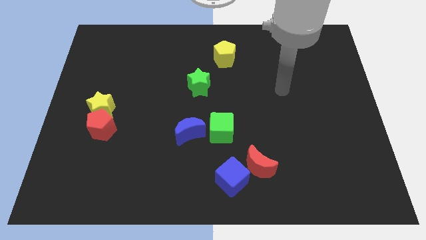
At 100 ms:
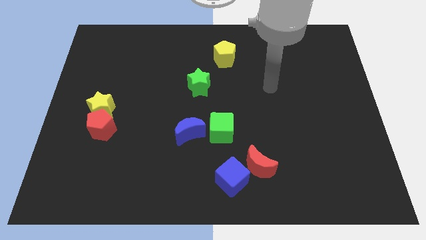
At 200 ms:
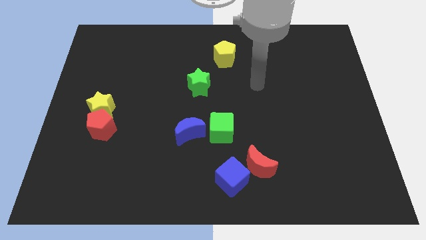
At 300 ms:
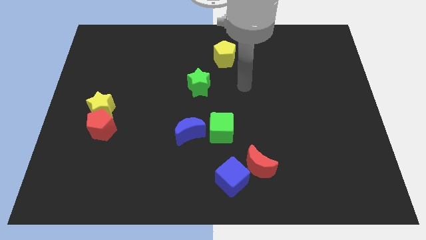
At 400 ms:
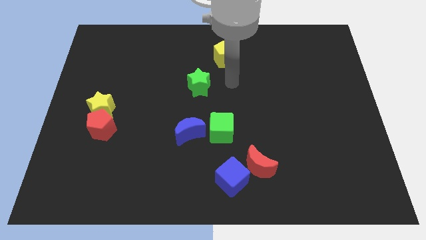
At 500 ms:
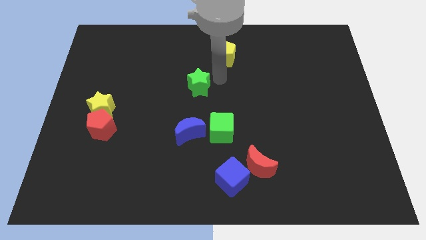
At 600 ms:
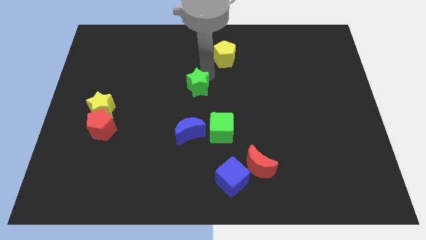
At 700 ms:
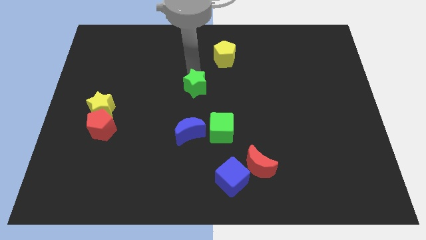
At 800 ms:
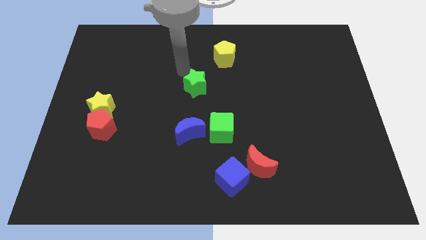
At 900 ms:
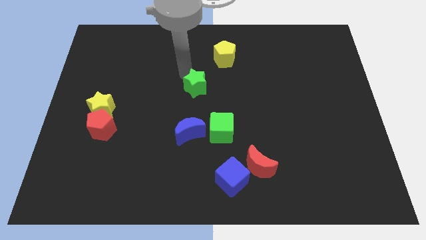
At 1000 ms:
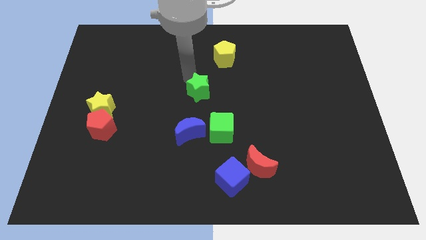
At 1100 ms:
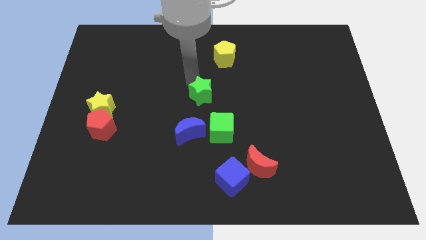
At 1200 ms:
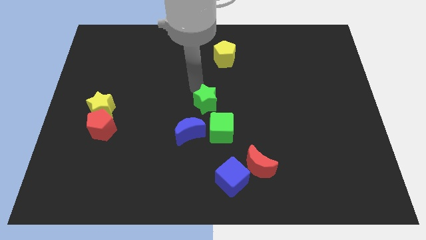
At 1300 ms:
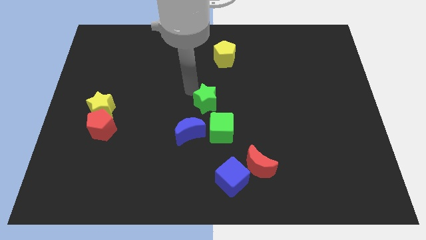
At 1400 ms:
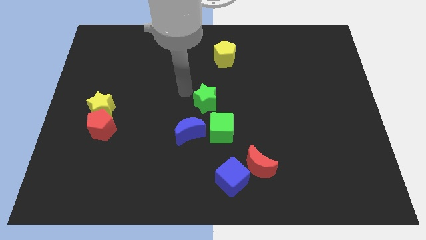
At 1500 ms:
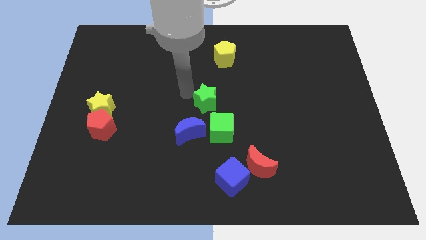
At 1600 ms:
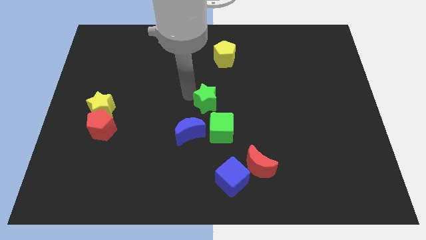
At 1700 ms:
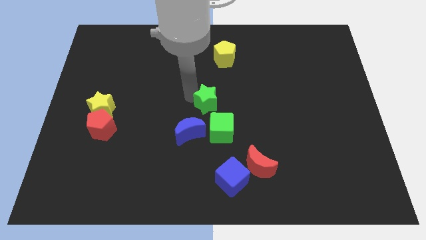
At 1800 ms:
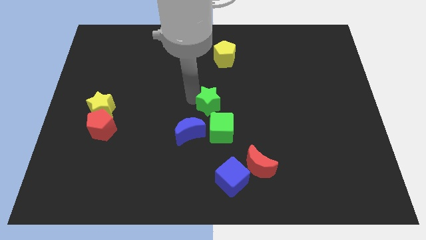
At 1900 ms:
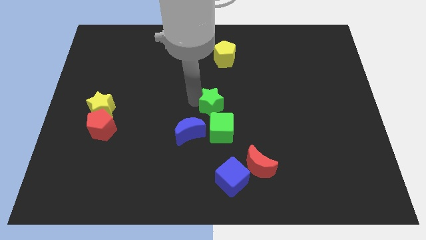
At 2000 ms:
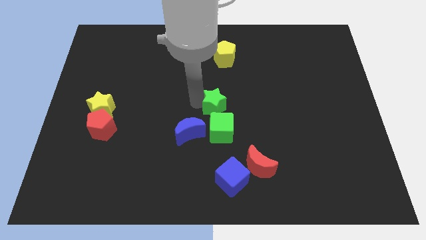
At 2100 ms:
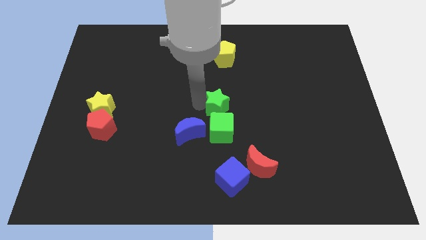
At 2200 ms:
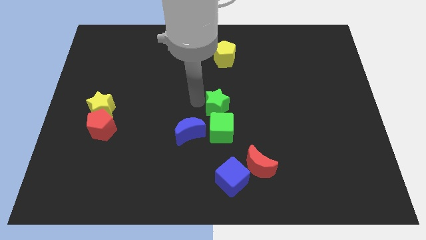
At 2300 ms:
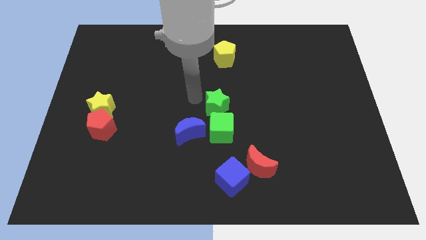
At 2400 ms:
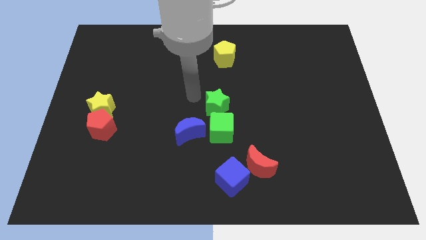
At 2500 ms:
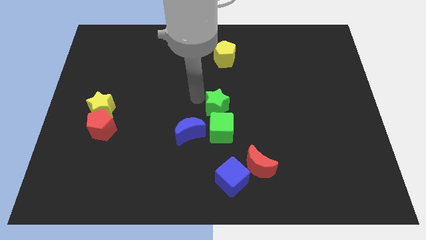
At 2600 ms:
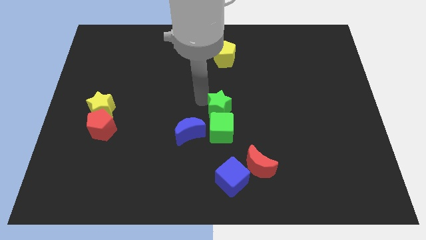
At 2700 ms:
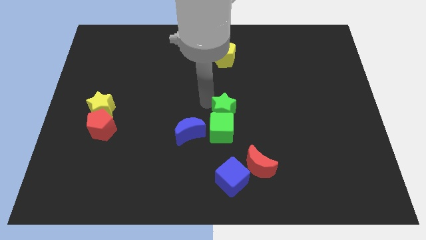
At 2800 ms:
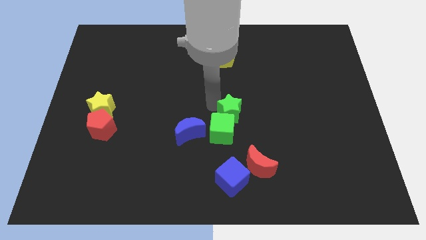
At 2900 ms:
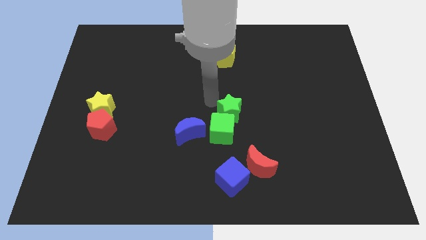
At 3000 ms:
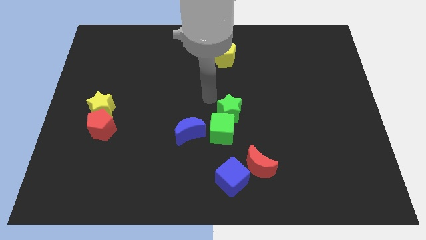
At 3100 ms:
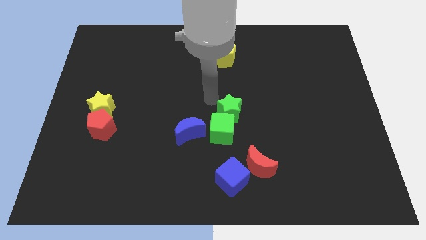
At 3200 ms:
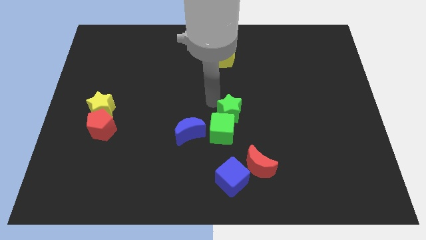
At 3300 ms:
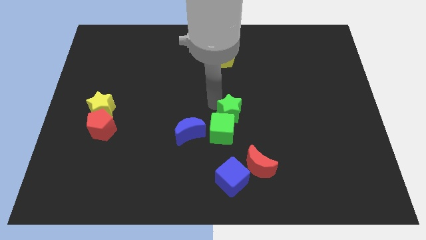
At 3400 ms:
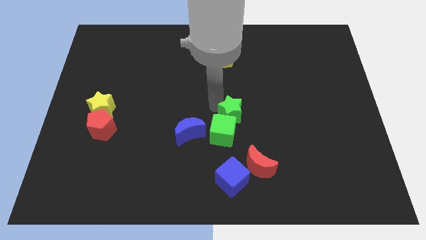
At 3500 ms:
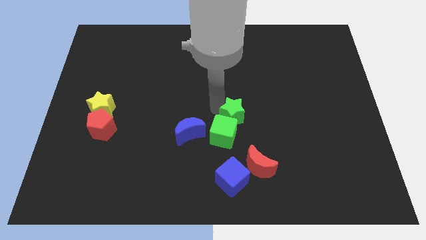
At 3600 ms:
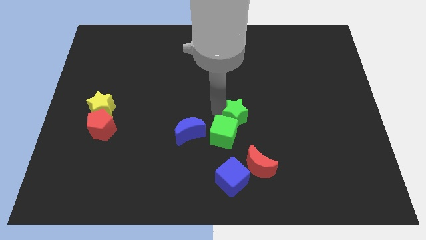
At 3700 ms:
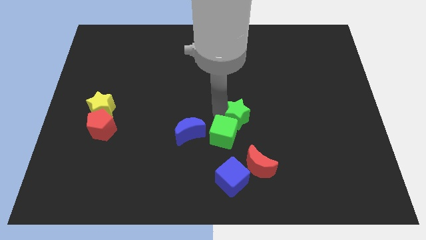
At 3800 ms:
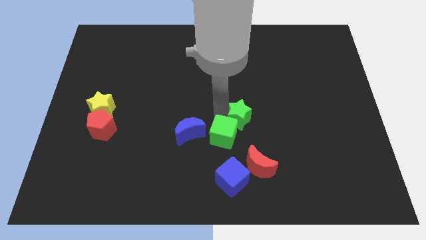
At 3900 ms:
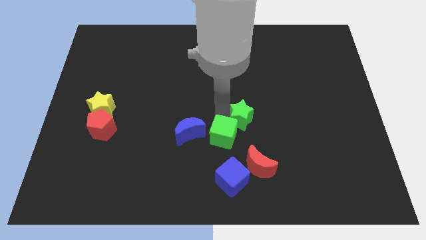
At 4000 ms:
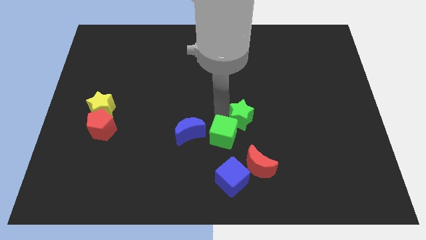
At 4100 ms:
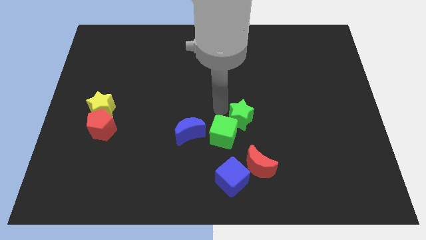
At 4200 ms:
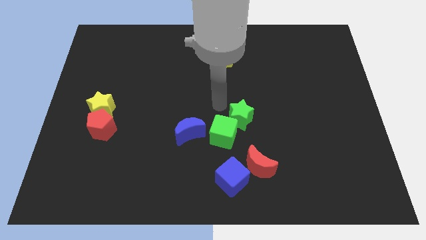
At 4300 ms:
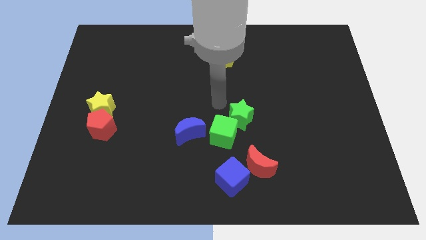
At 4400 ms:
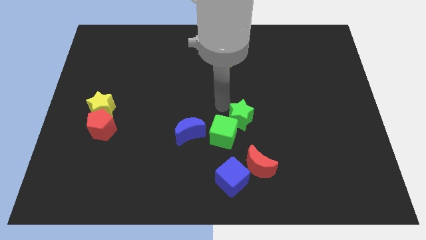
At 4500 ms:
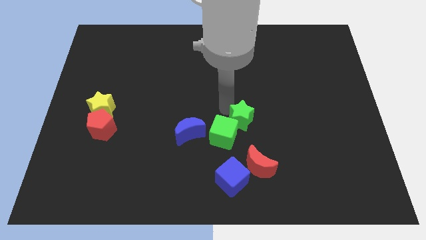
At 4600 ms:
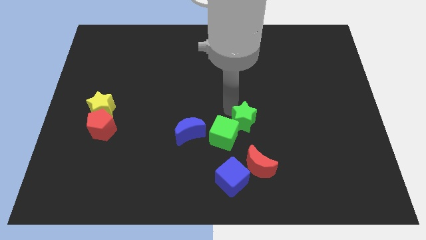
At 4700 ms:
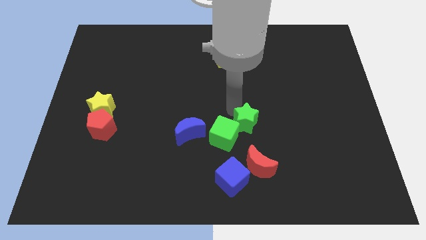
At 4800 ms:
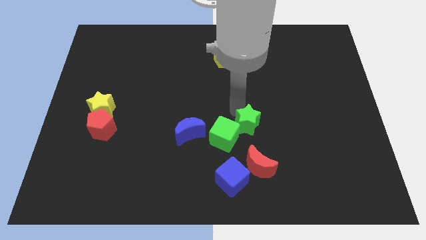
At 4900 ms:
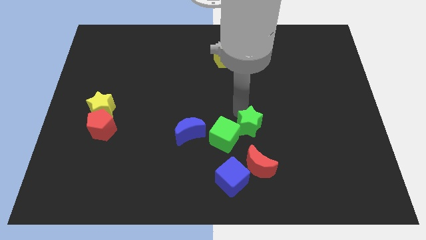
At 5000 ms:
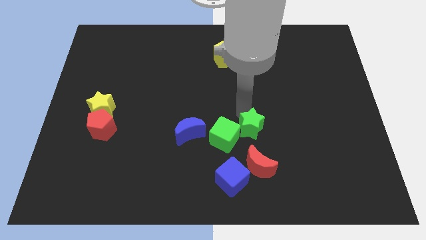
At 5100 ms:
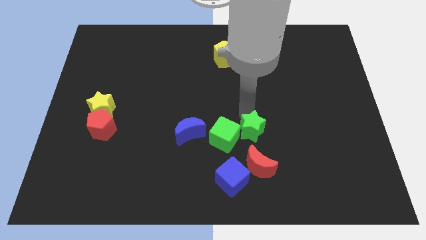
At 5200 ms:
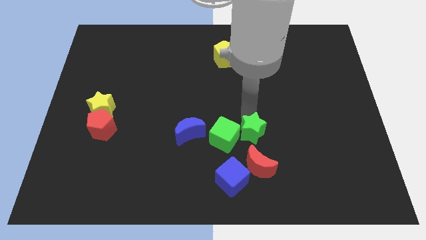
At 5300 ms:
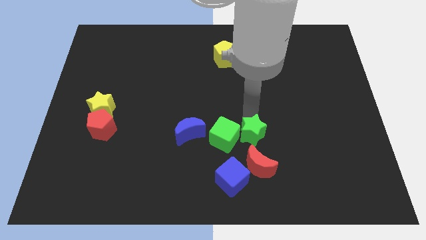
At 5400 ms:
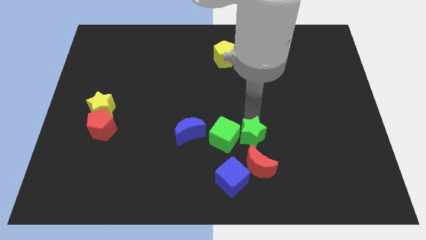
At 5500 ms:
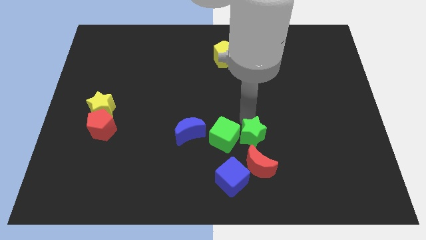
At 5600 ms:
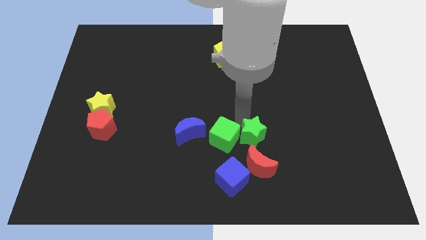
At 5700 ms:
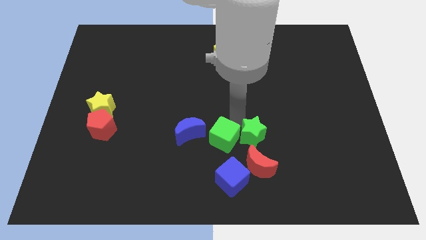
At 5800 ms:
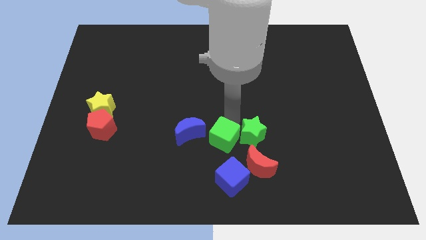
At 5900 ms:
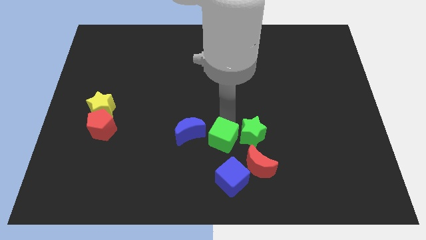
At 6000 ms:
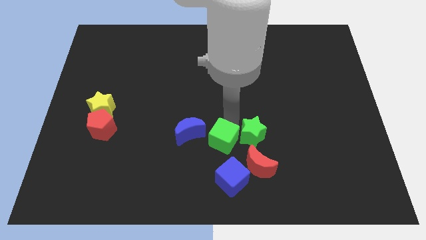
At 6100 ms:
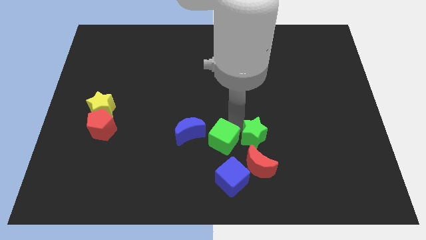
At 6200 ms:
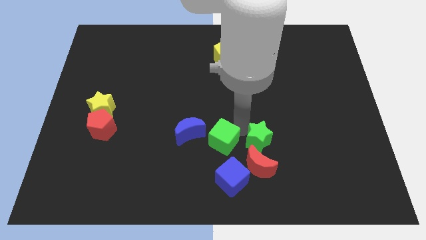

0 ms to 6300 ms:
slide the green star downwards and right

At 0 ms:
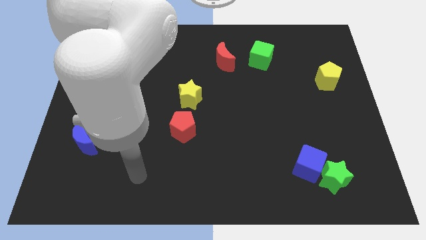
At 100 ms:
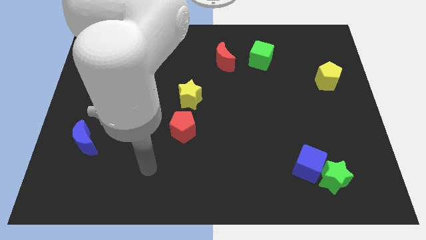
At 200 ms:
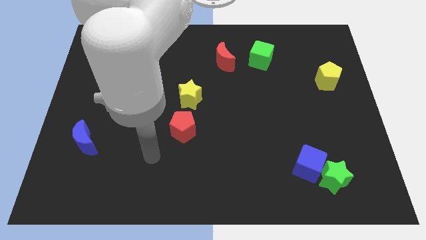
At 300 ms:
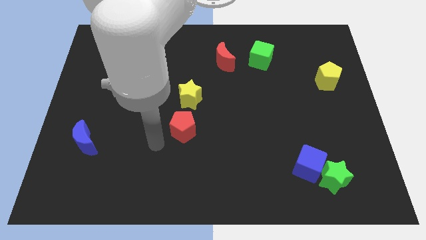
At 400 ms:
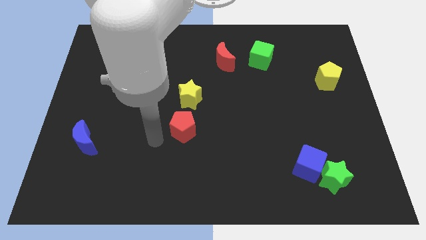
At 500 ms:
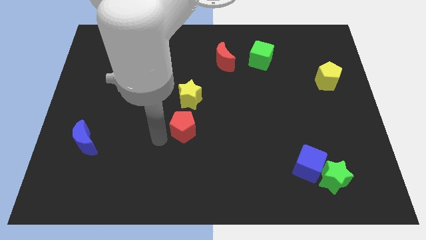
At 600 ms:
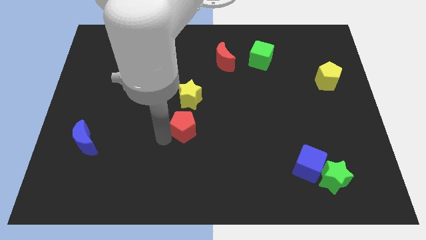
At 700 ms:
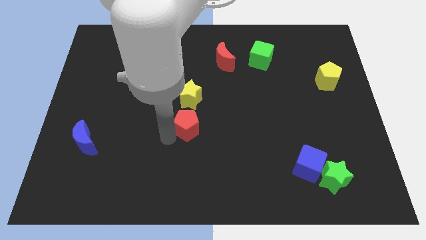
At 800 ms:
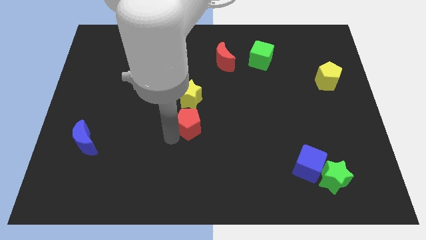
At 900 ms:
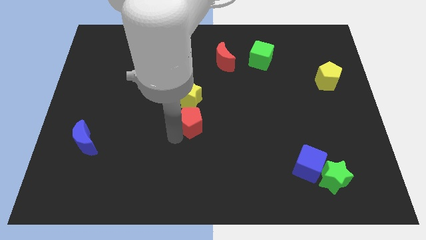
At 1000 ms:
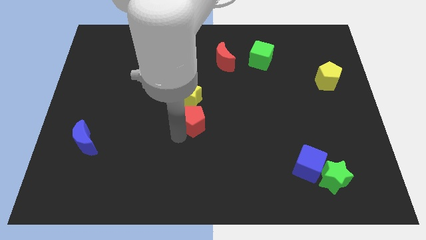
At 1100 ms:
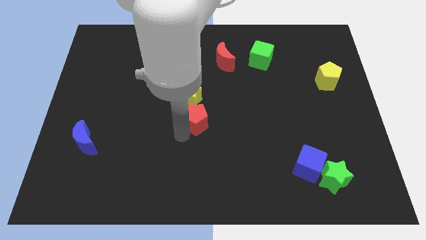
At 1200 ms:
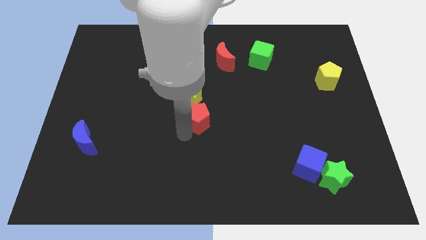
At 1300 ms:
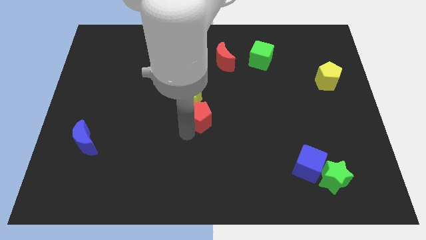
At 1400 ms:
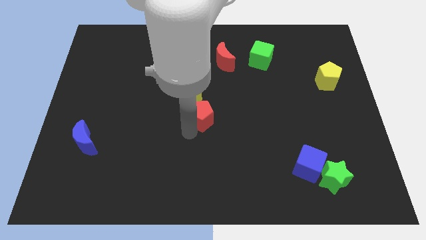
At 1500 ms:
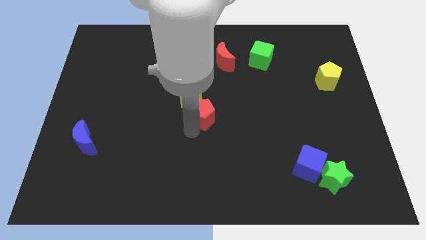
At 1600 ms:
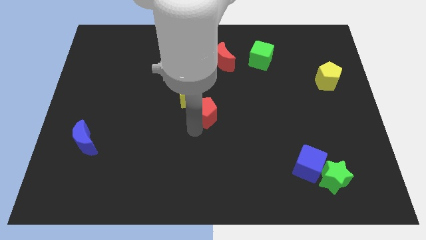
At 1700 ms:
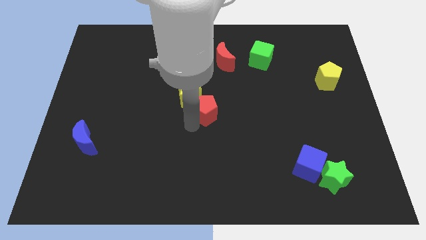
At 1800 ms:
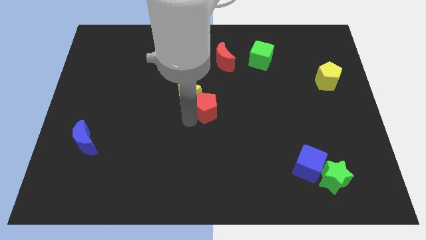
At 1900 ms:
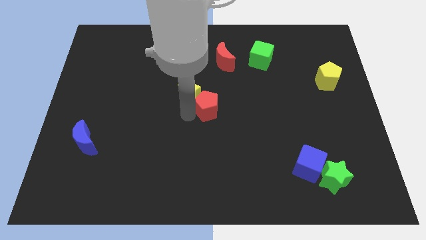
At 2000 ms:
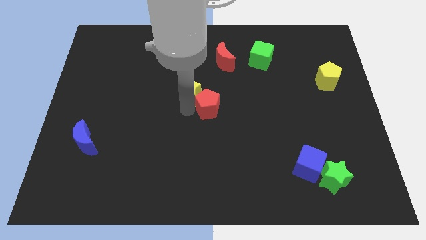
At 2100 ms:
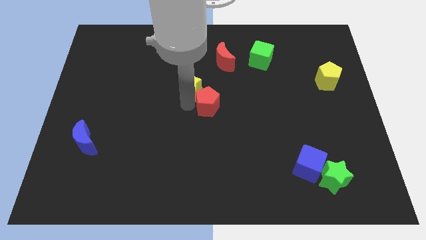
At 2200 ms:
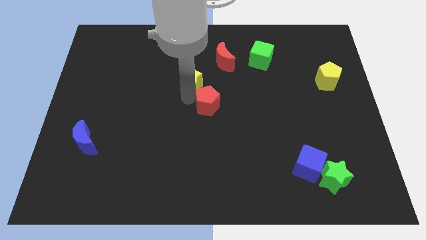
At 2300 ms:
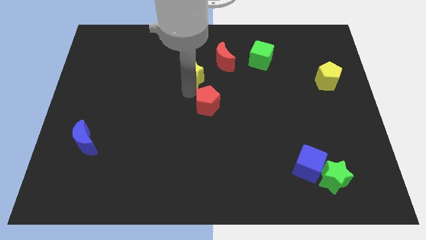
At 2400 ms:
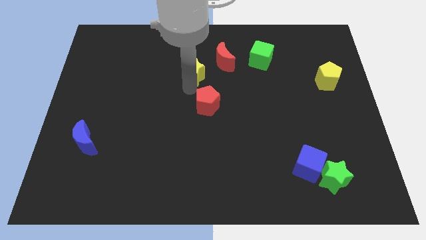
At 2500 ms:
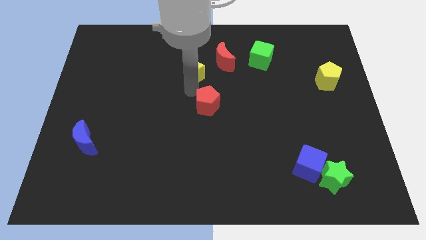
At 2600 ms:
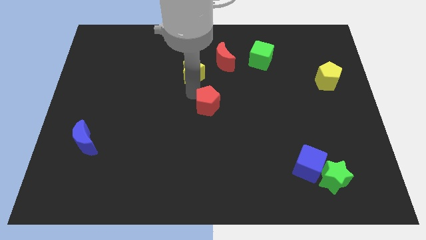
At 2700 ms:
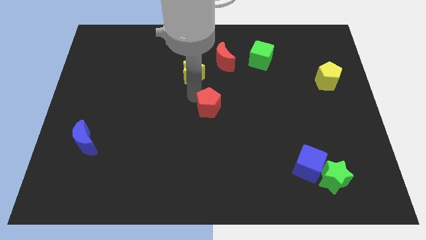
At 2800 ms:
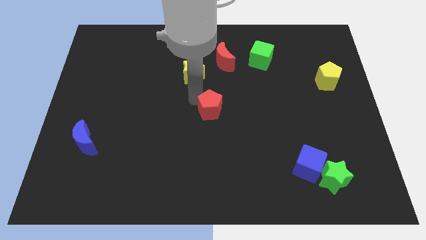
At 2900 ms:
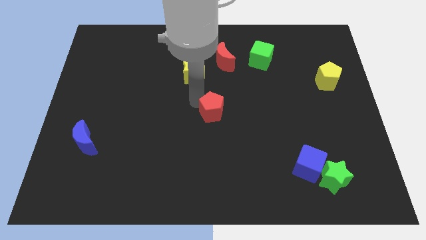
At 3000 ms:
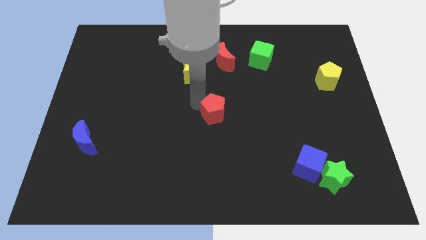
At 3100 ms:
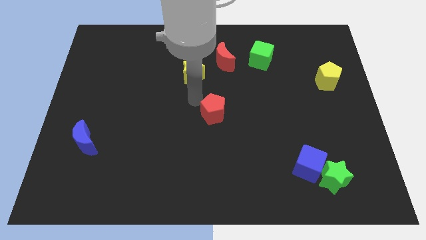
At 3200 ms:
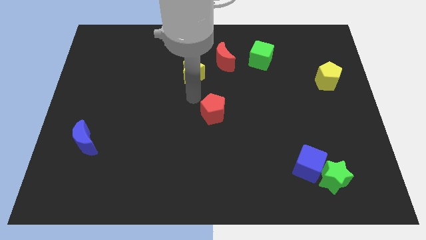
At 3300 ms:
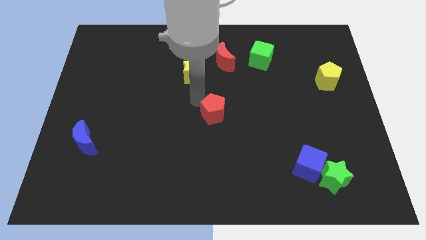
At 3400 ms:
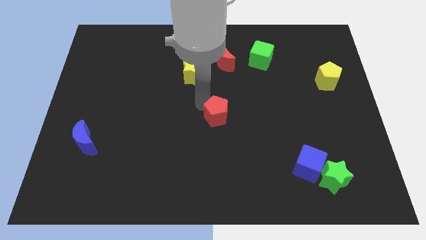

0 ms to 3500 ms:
move the red pentagon to the right a bit
